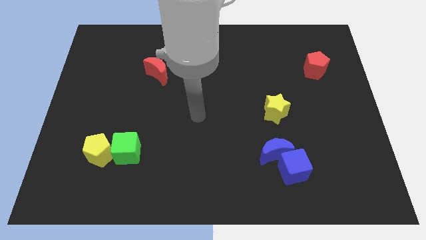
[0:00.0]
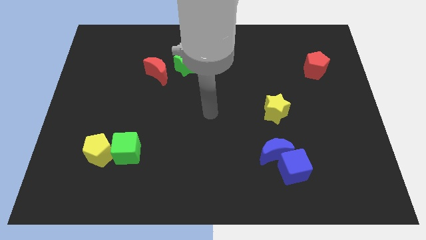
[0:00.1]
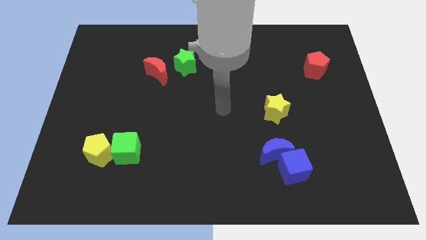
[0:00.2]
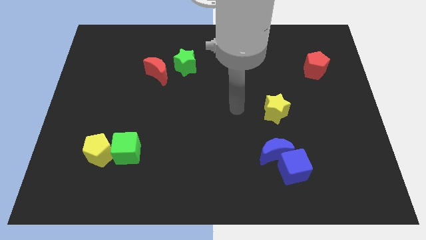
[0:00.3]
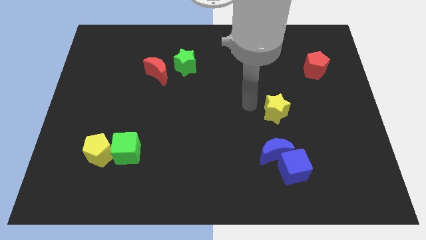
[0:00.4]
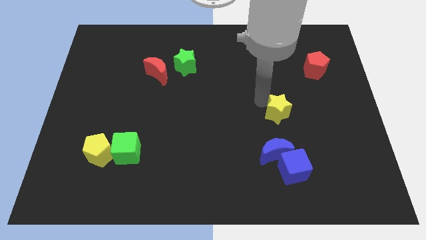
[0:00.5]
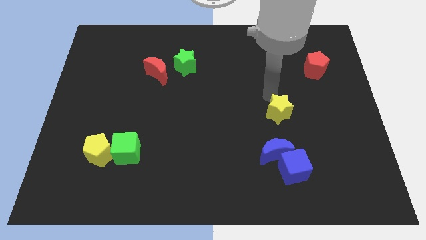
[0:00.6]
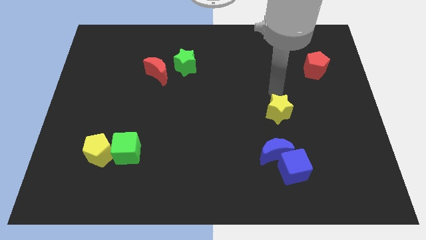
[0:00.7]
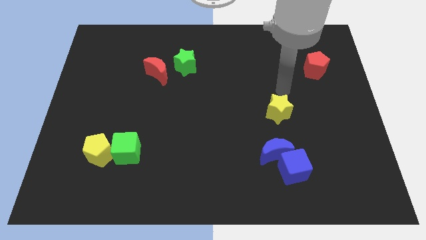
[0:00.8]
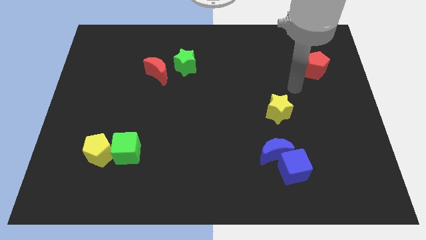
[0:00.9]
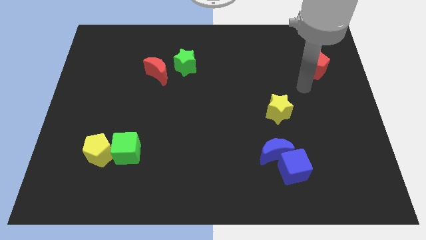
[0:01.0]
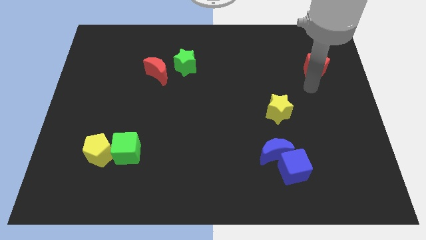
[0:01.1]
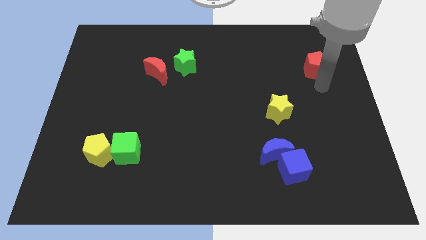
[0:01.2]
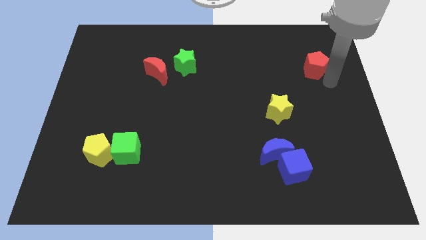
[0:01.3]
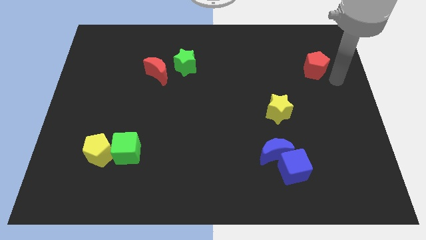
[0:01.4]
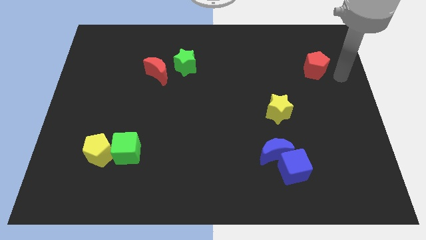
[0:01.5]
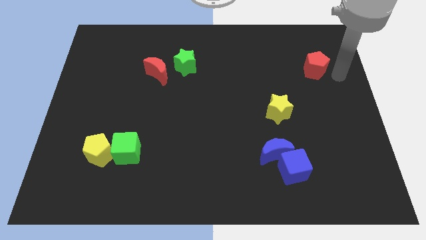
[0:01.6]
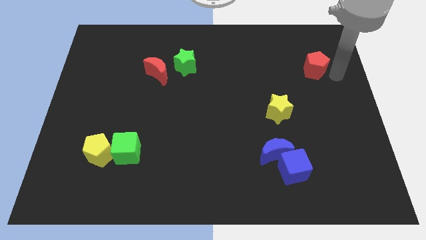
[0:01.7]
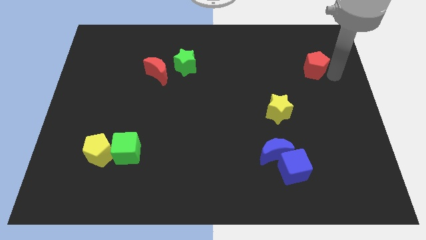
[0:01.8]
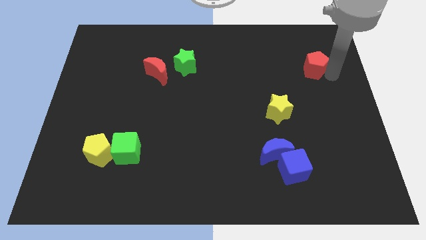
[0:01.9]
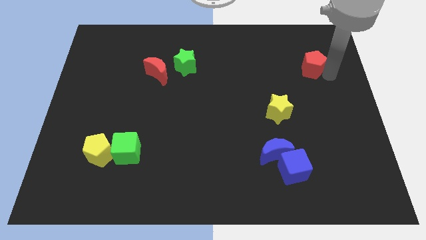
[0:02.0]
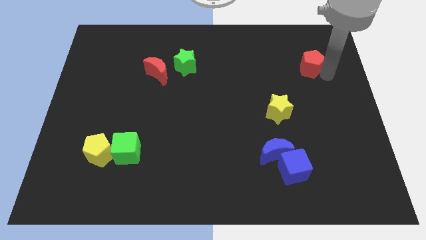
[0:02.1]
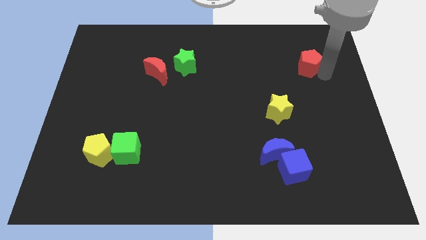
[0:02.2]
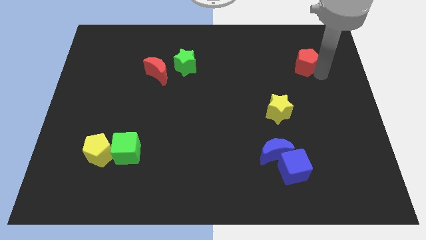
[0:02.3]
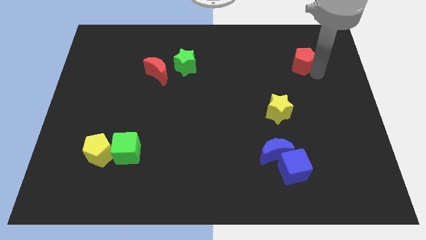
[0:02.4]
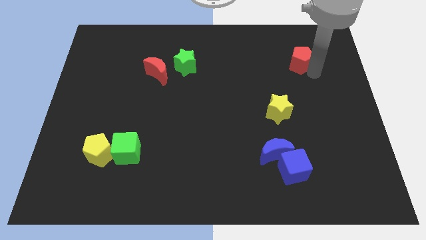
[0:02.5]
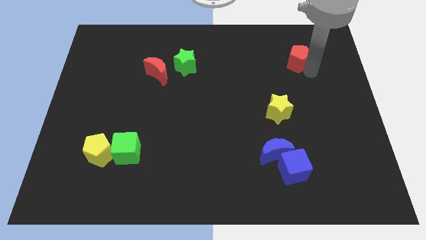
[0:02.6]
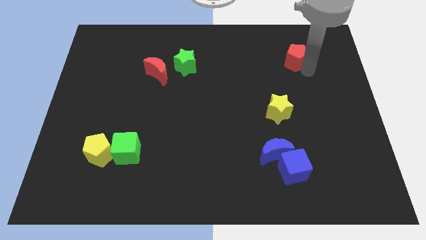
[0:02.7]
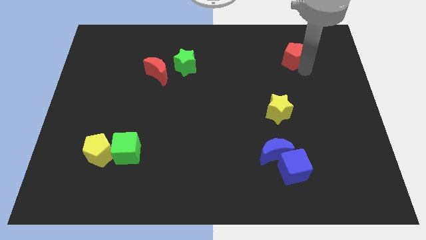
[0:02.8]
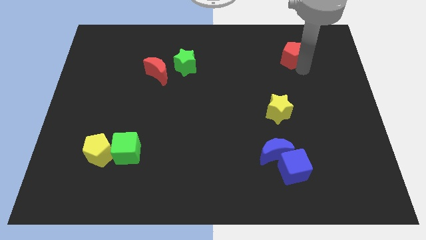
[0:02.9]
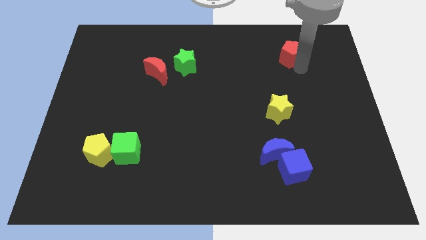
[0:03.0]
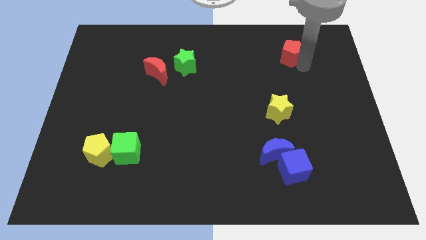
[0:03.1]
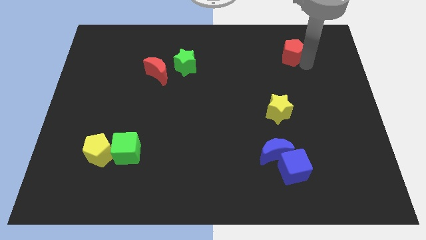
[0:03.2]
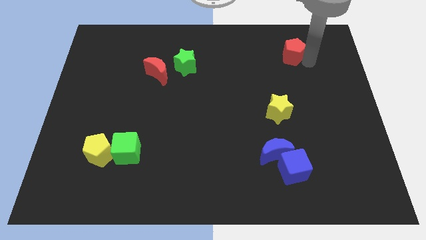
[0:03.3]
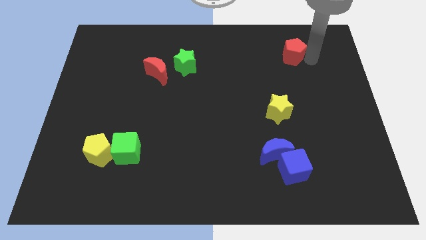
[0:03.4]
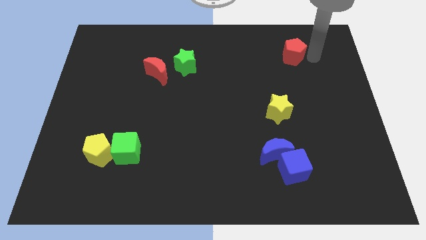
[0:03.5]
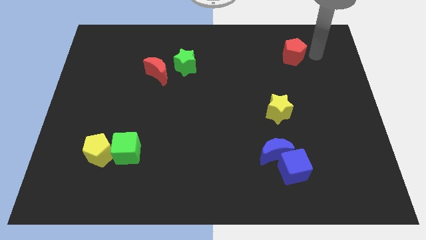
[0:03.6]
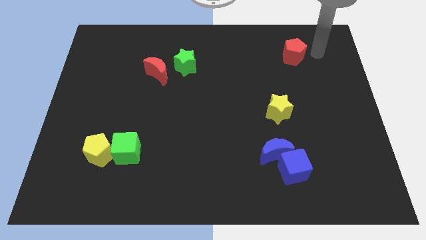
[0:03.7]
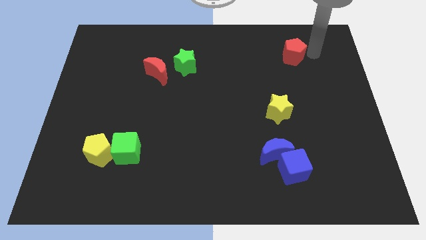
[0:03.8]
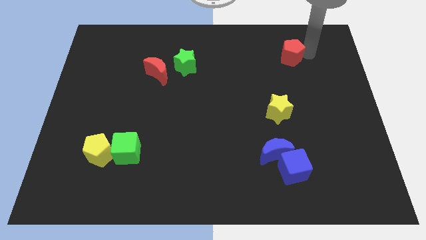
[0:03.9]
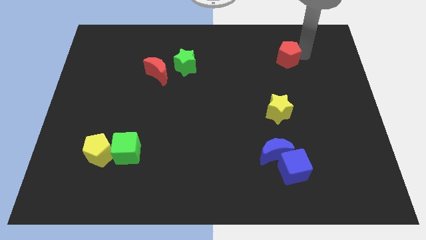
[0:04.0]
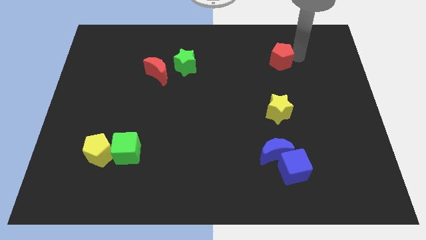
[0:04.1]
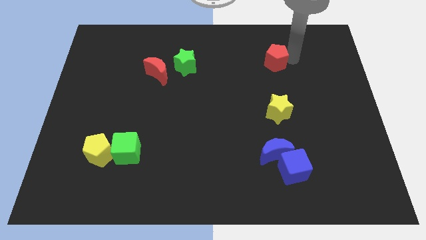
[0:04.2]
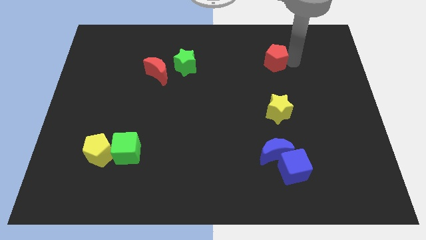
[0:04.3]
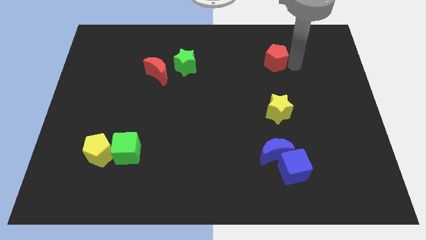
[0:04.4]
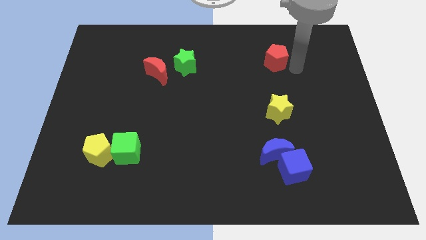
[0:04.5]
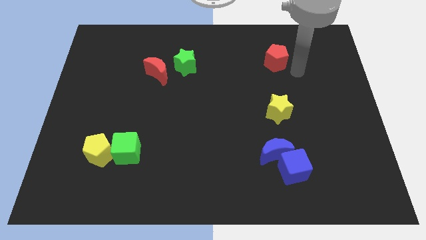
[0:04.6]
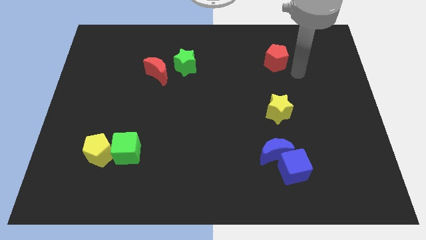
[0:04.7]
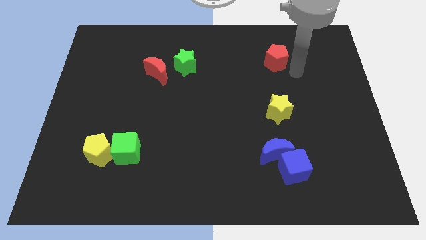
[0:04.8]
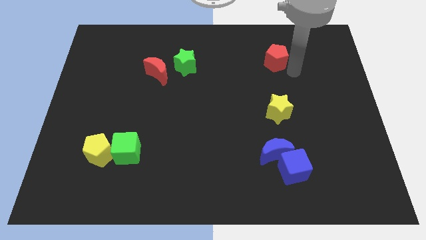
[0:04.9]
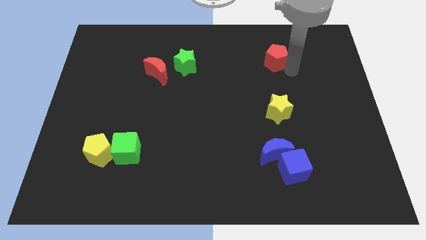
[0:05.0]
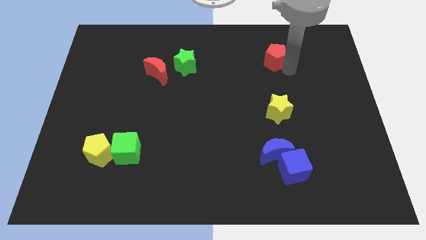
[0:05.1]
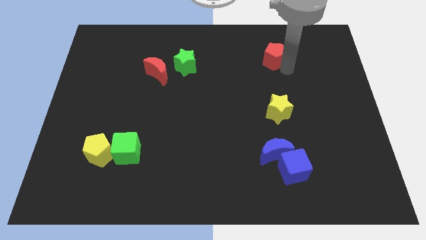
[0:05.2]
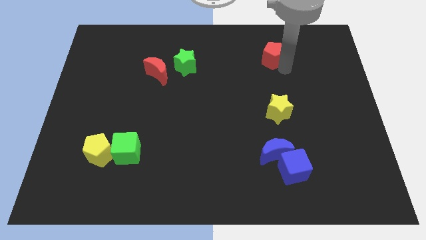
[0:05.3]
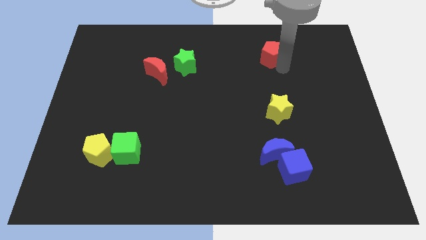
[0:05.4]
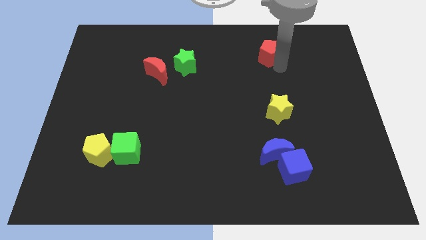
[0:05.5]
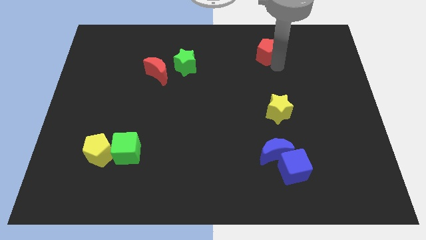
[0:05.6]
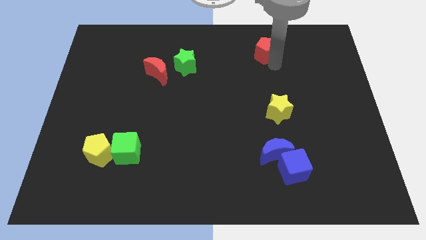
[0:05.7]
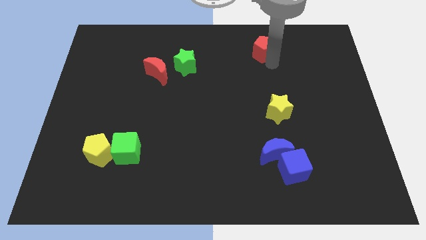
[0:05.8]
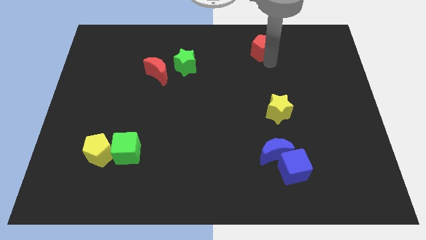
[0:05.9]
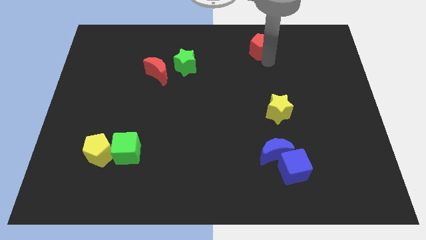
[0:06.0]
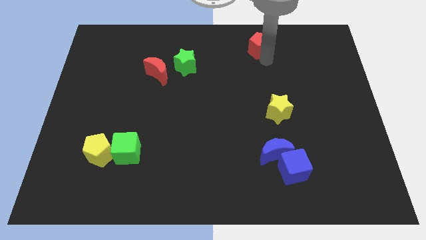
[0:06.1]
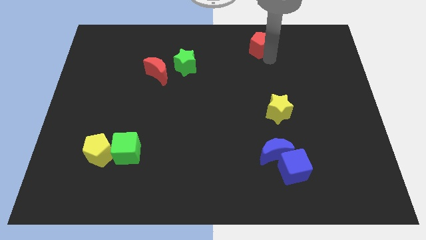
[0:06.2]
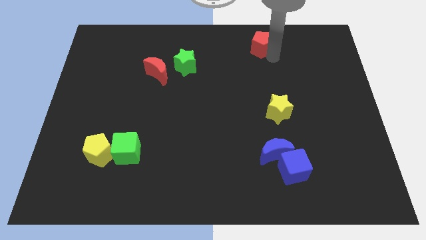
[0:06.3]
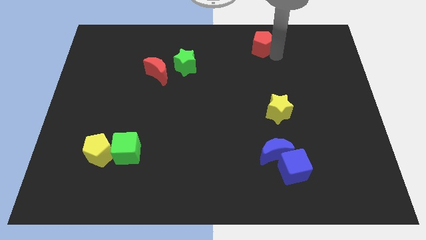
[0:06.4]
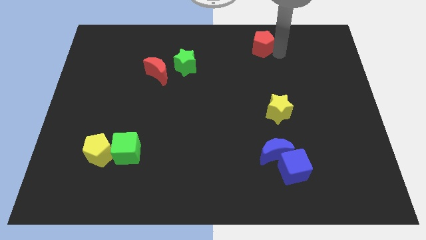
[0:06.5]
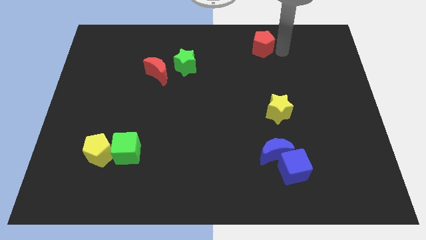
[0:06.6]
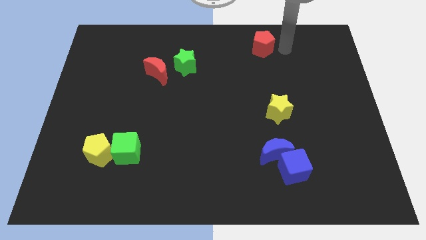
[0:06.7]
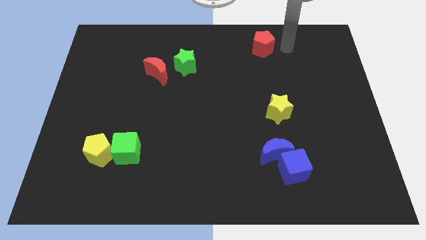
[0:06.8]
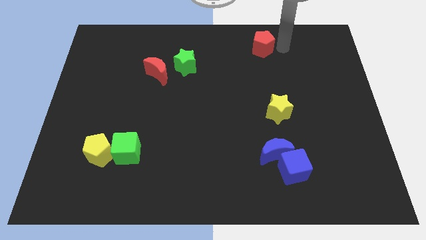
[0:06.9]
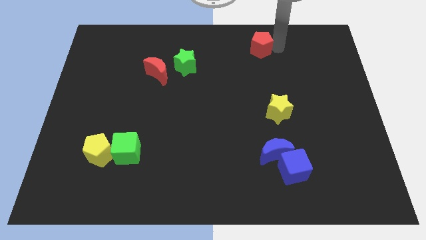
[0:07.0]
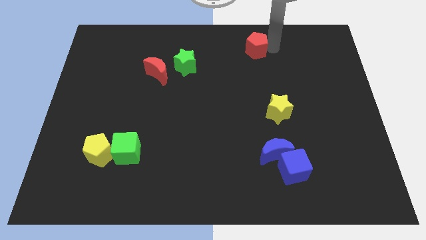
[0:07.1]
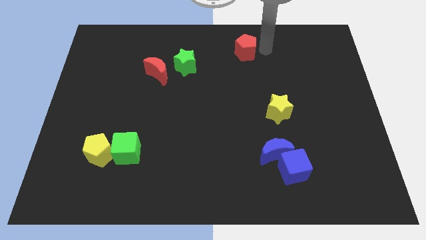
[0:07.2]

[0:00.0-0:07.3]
push the red pentagon to the top

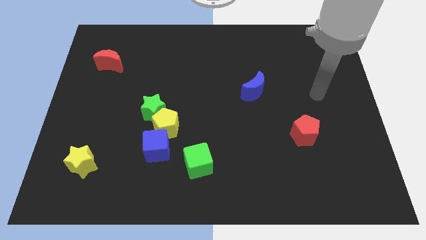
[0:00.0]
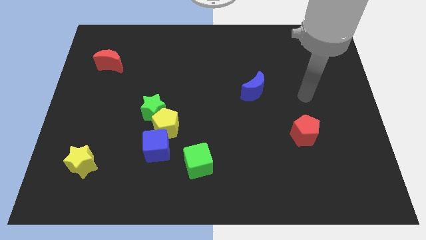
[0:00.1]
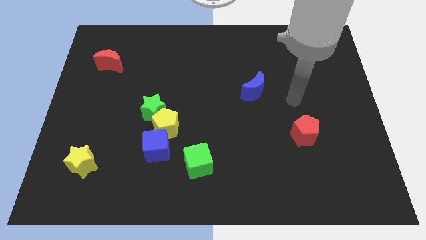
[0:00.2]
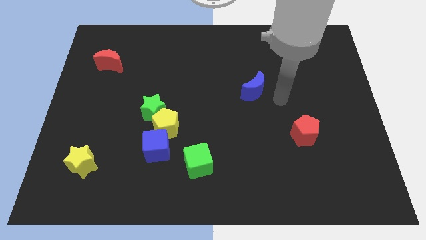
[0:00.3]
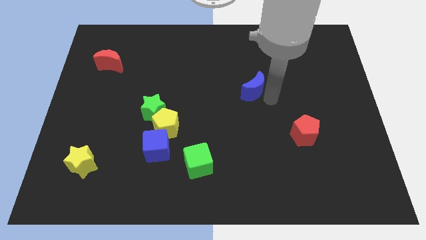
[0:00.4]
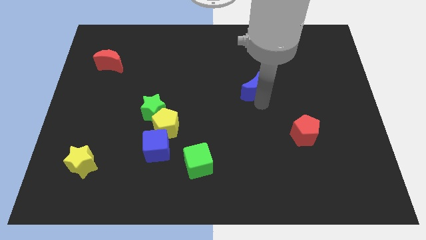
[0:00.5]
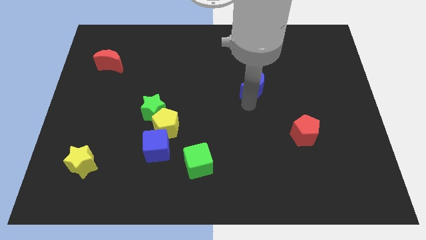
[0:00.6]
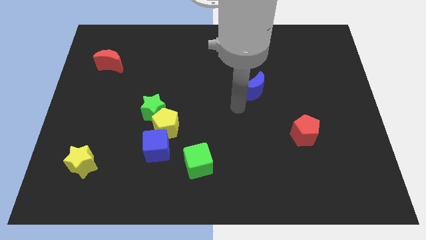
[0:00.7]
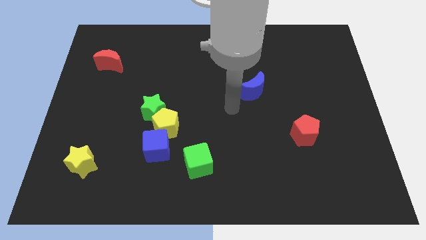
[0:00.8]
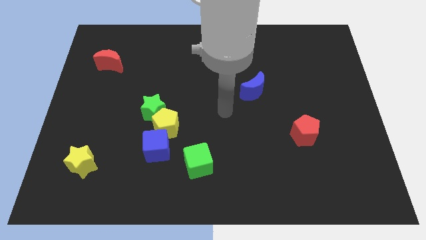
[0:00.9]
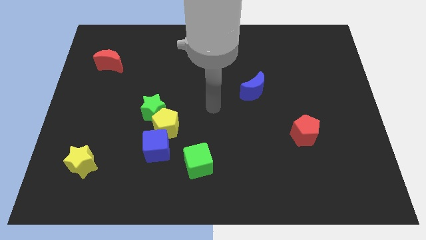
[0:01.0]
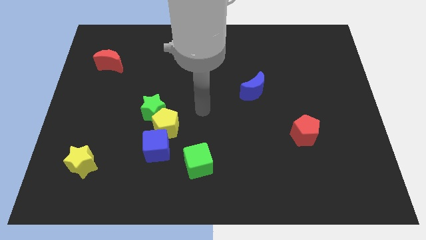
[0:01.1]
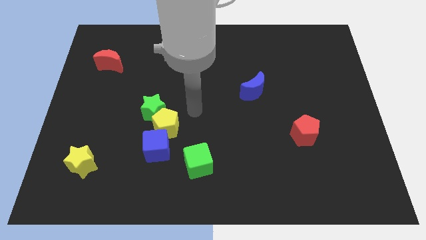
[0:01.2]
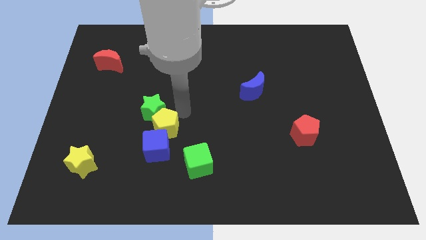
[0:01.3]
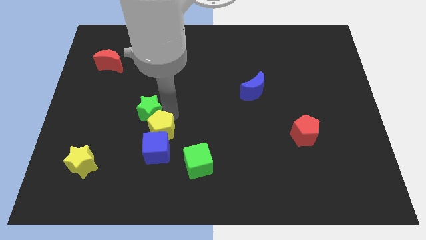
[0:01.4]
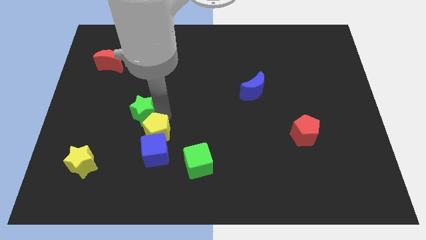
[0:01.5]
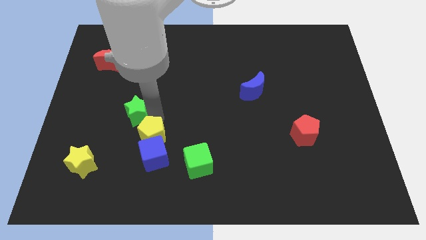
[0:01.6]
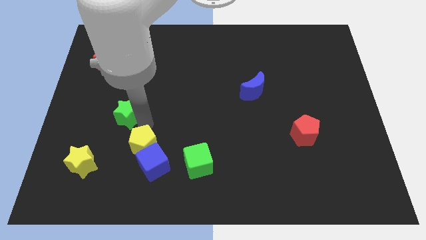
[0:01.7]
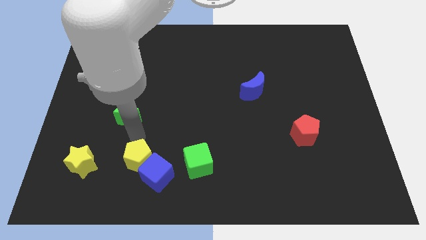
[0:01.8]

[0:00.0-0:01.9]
put the blue cube to the bottom side
